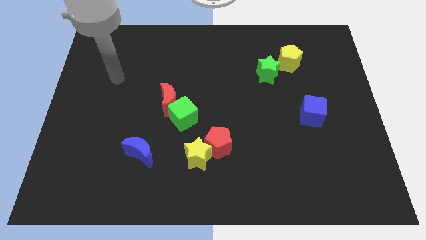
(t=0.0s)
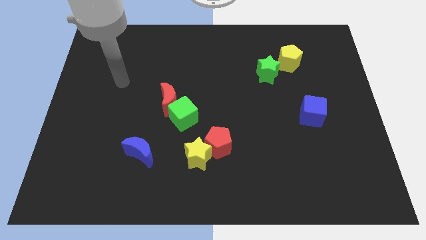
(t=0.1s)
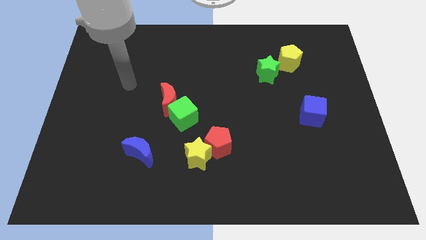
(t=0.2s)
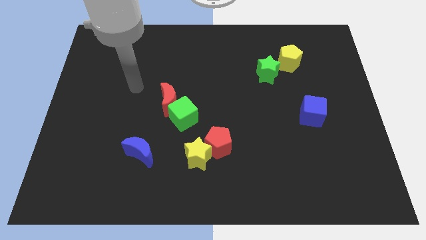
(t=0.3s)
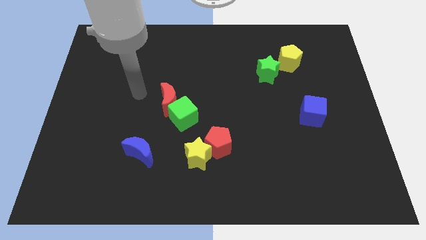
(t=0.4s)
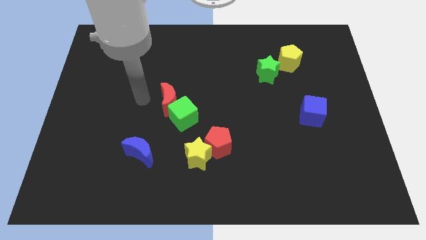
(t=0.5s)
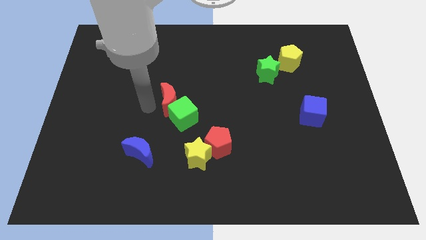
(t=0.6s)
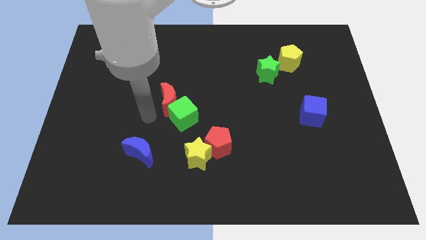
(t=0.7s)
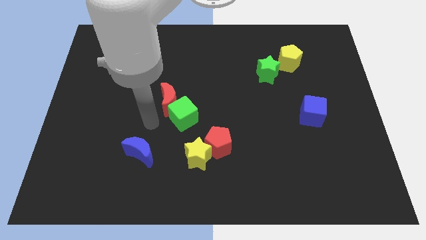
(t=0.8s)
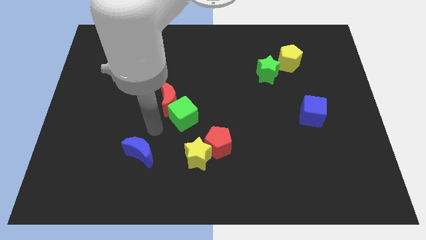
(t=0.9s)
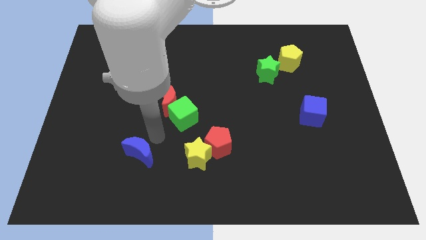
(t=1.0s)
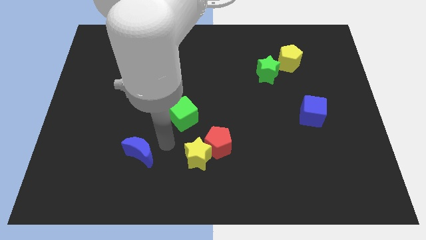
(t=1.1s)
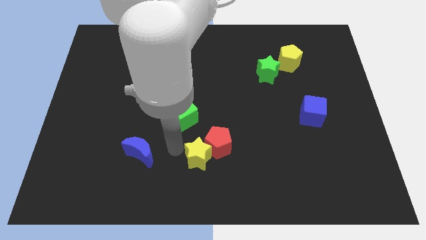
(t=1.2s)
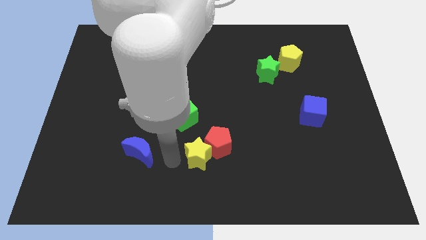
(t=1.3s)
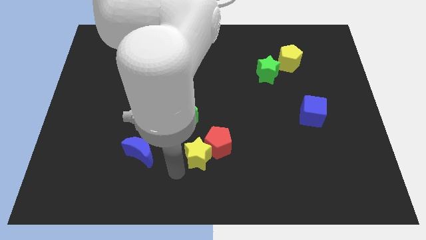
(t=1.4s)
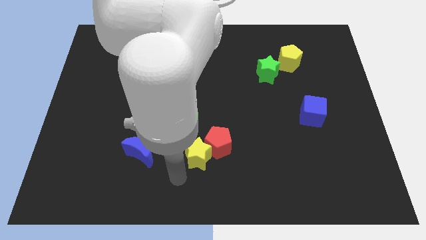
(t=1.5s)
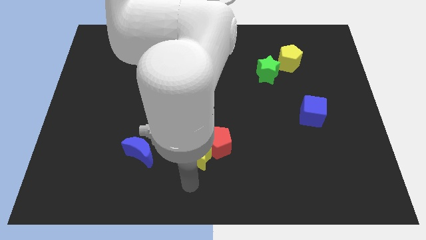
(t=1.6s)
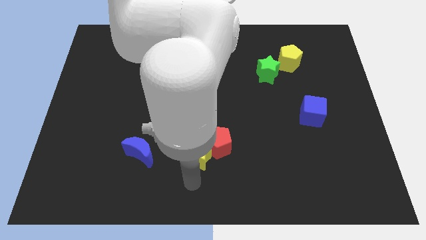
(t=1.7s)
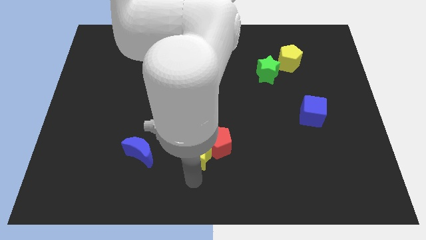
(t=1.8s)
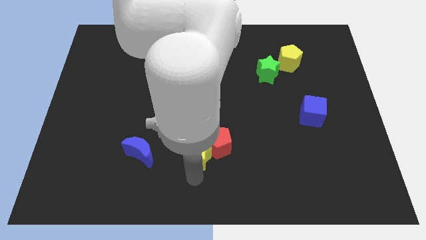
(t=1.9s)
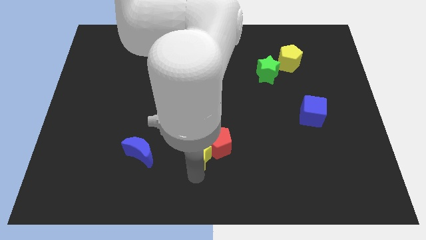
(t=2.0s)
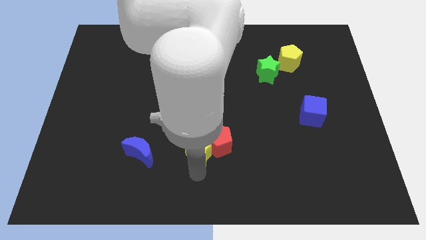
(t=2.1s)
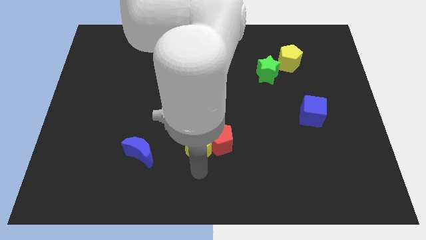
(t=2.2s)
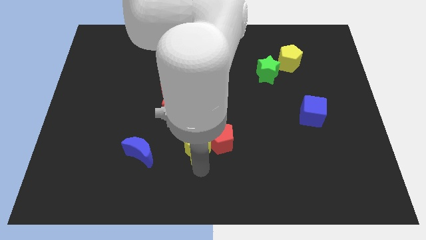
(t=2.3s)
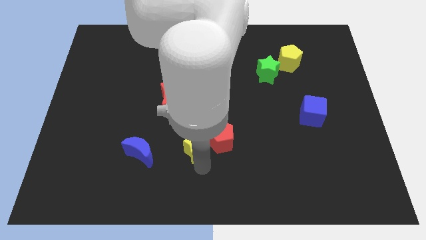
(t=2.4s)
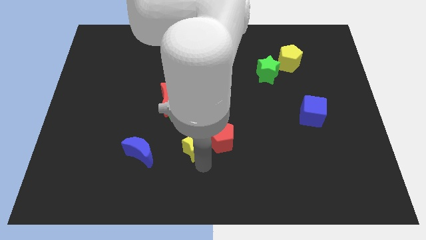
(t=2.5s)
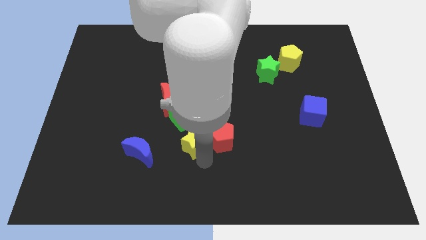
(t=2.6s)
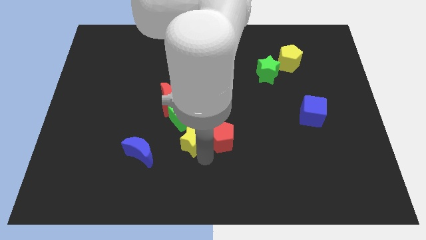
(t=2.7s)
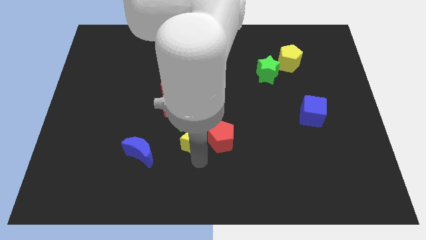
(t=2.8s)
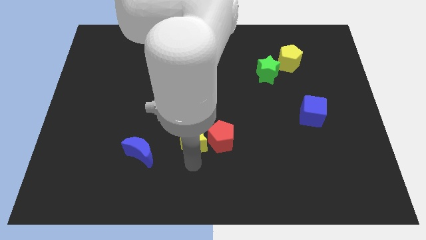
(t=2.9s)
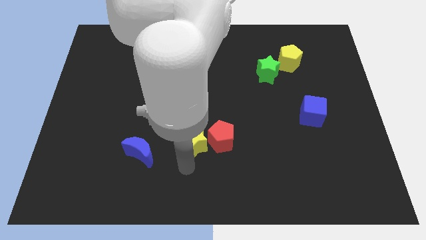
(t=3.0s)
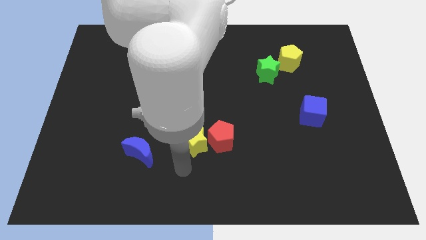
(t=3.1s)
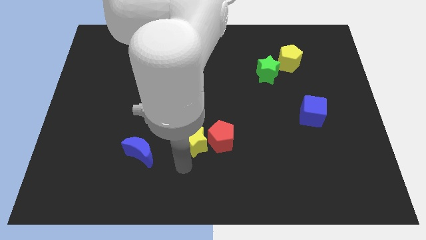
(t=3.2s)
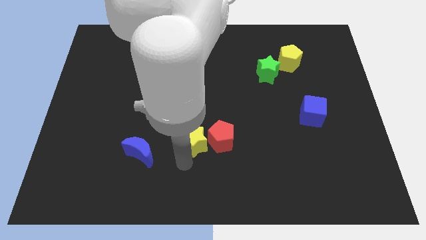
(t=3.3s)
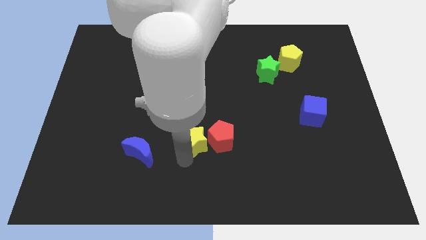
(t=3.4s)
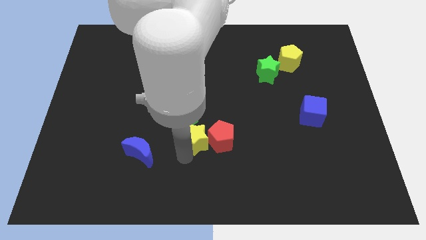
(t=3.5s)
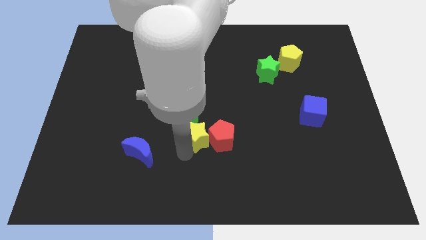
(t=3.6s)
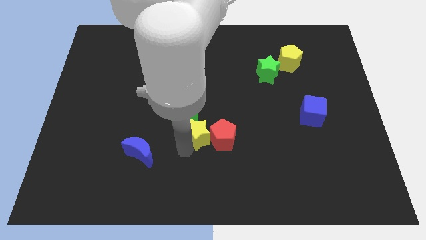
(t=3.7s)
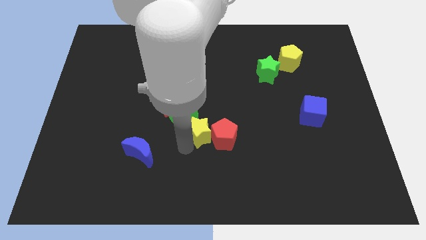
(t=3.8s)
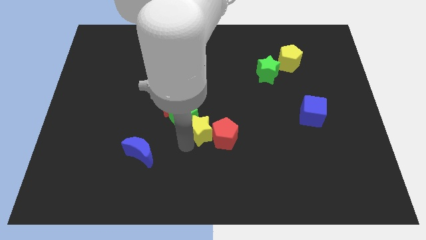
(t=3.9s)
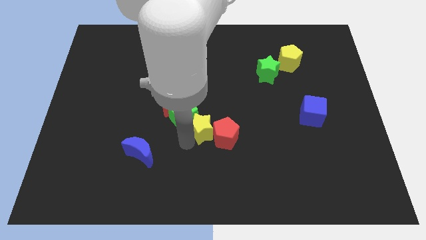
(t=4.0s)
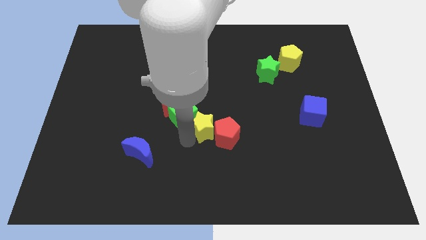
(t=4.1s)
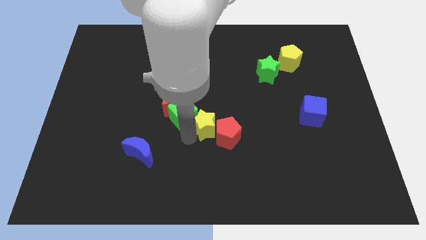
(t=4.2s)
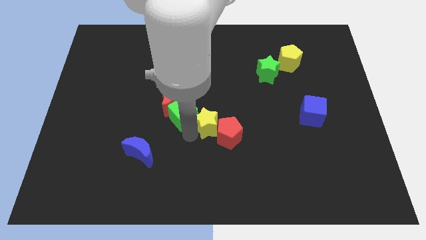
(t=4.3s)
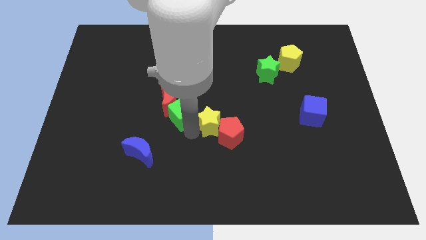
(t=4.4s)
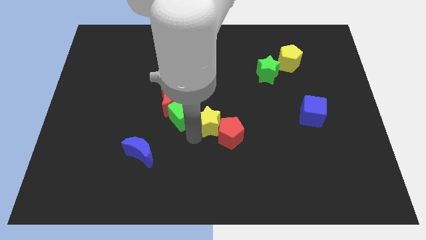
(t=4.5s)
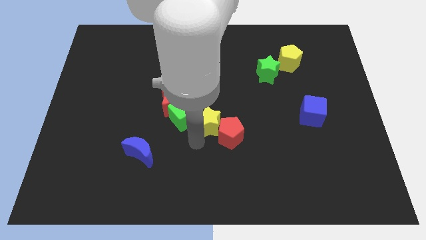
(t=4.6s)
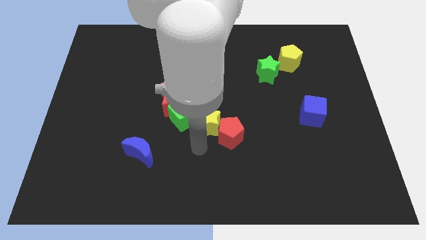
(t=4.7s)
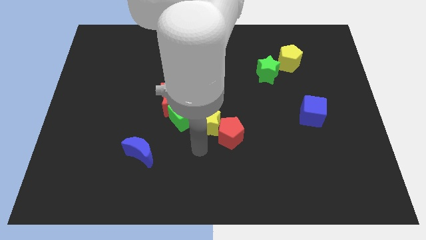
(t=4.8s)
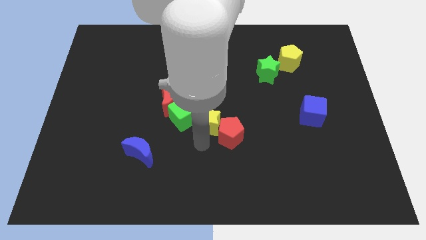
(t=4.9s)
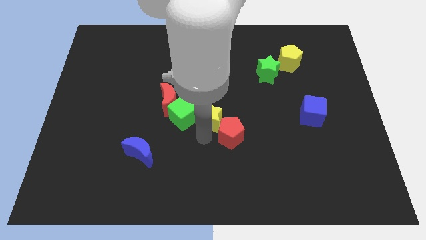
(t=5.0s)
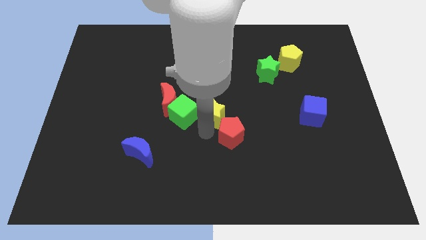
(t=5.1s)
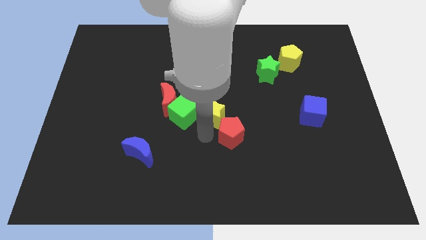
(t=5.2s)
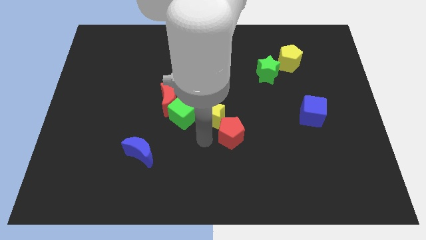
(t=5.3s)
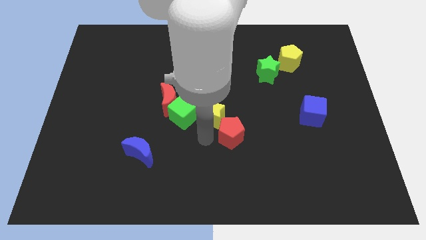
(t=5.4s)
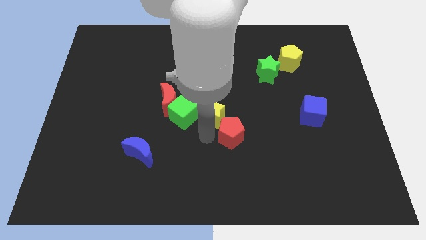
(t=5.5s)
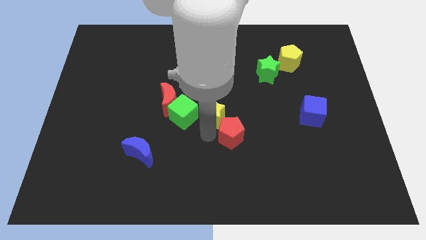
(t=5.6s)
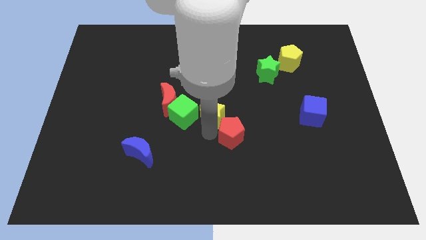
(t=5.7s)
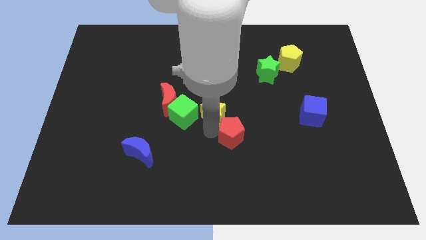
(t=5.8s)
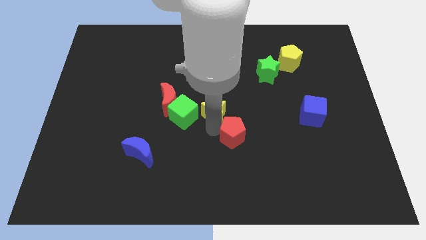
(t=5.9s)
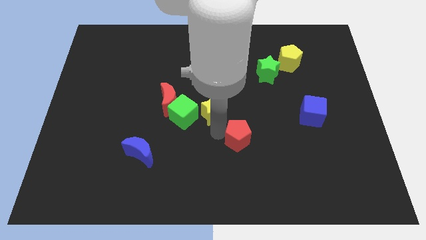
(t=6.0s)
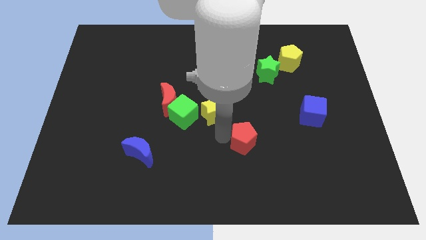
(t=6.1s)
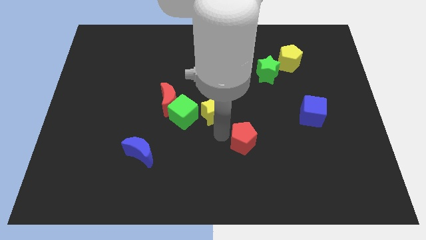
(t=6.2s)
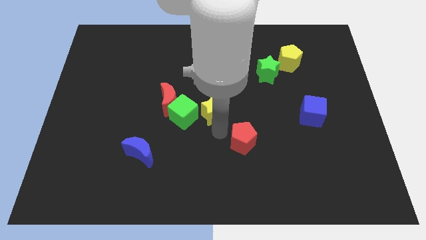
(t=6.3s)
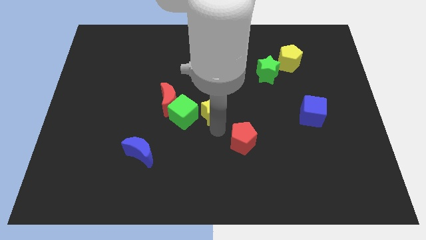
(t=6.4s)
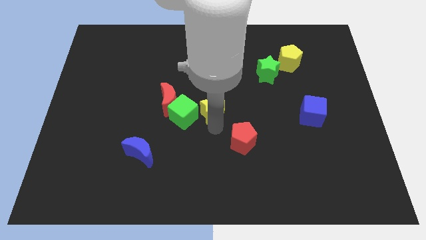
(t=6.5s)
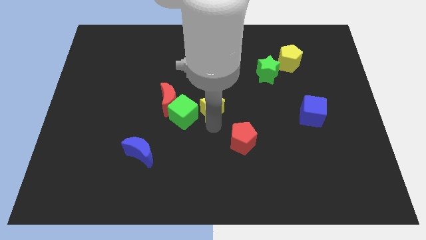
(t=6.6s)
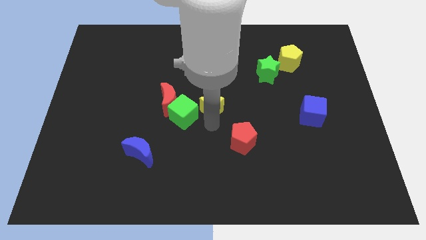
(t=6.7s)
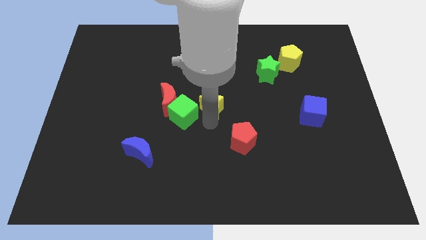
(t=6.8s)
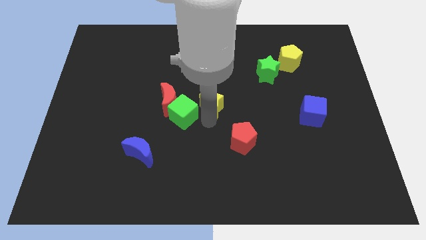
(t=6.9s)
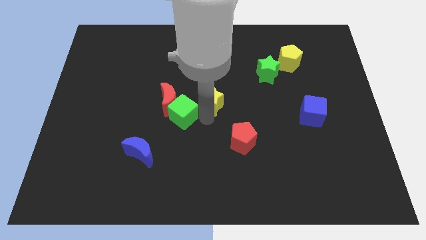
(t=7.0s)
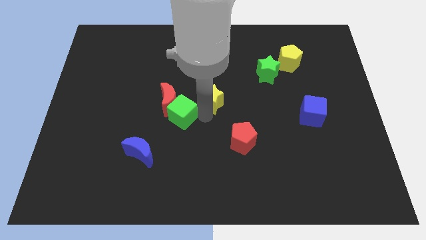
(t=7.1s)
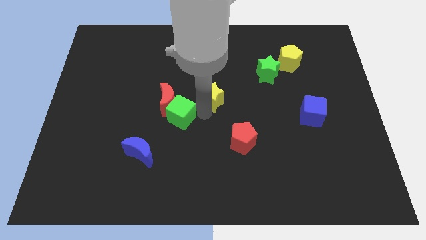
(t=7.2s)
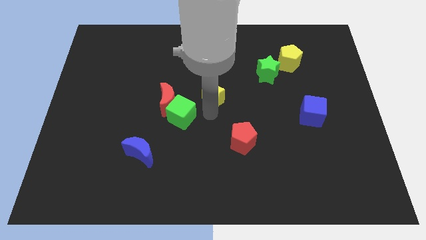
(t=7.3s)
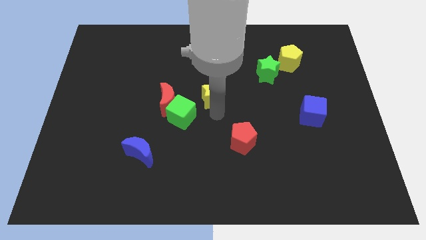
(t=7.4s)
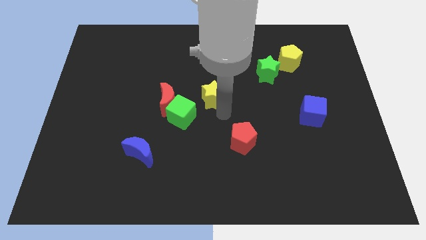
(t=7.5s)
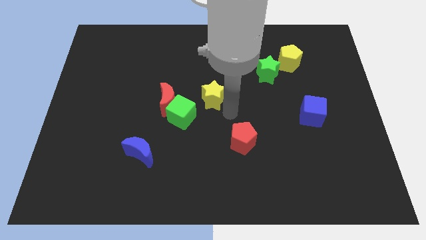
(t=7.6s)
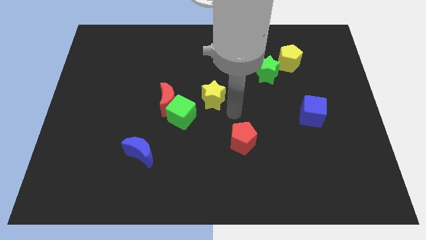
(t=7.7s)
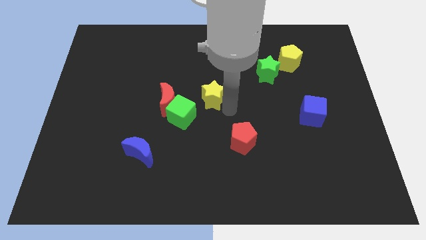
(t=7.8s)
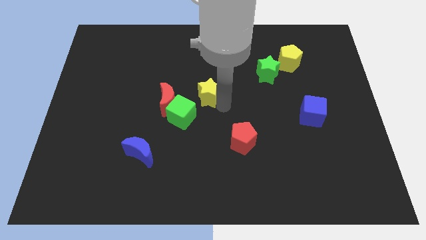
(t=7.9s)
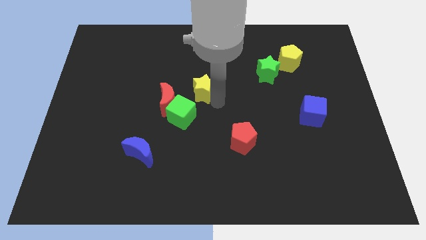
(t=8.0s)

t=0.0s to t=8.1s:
slide the yellow star to the top right of the red moon
